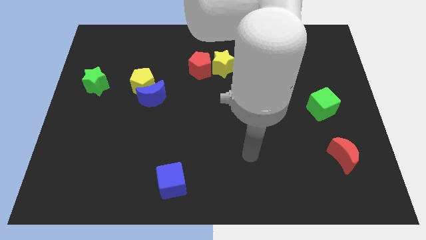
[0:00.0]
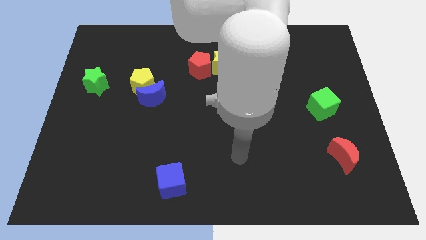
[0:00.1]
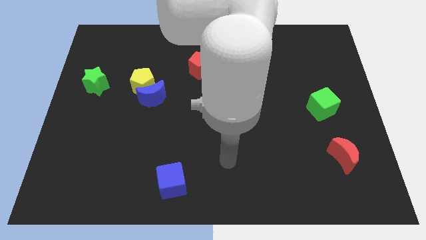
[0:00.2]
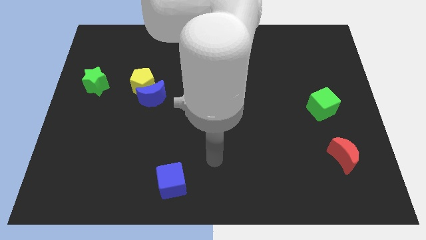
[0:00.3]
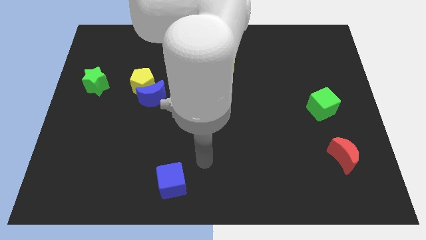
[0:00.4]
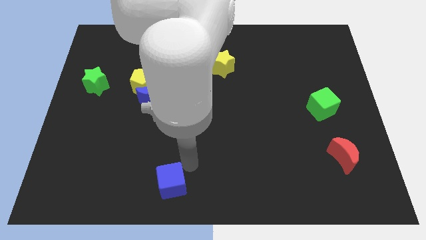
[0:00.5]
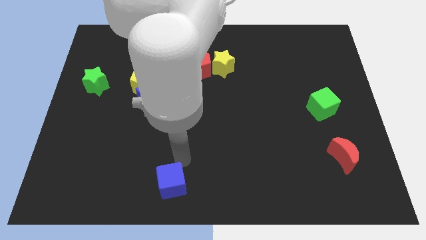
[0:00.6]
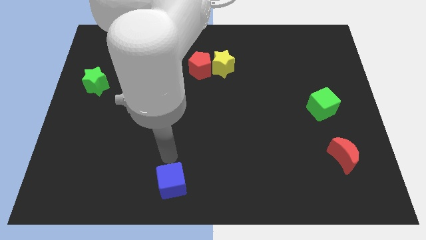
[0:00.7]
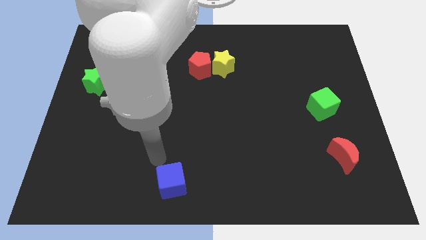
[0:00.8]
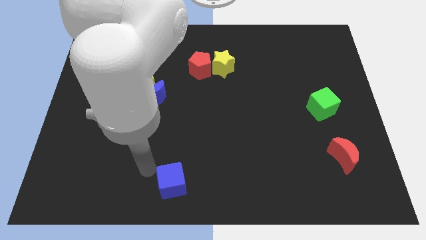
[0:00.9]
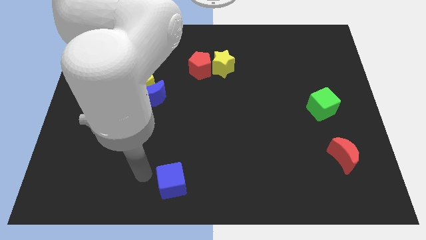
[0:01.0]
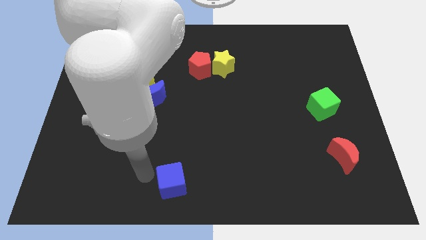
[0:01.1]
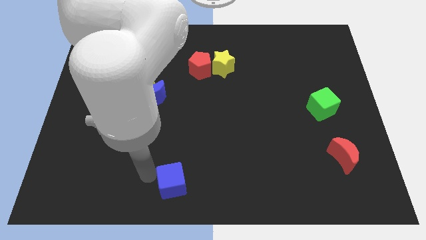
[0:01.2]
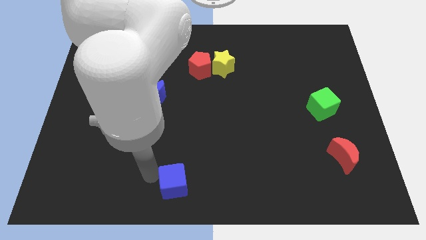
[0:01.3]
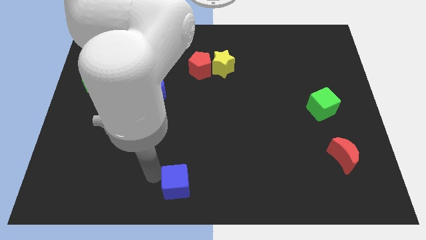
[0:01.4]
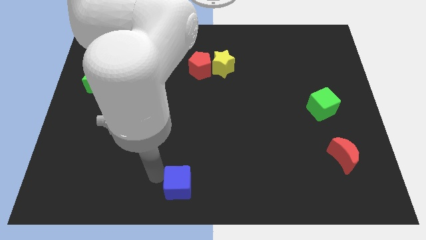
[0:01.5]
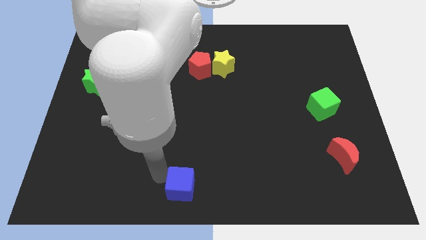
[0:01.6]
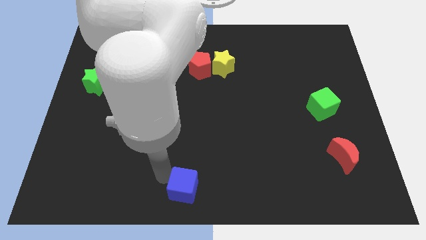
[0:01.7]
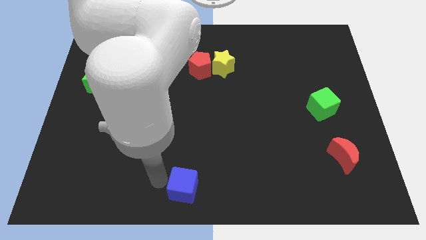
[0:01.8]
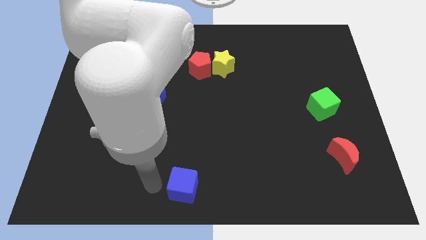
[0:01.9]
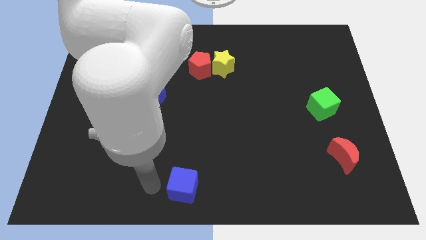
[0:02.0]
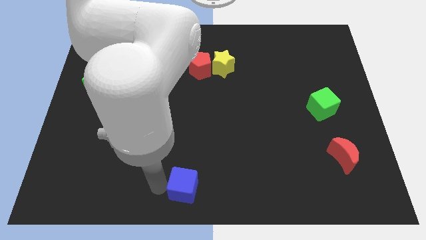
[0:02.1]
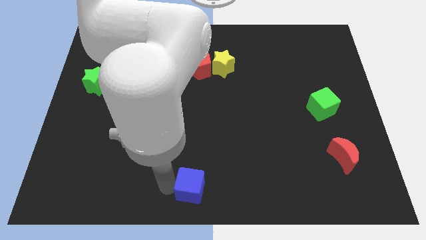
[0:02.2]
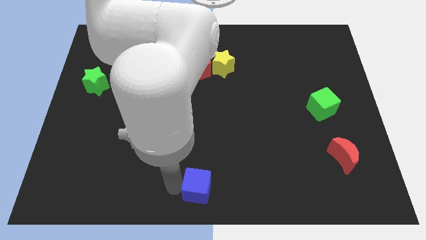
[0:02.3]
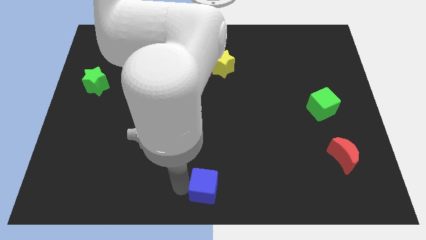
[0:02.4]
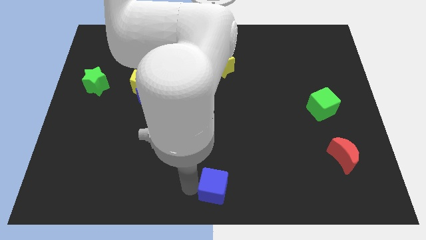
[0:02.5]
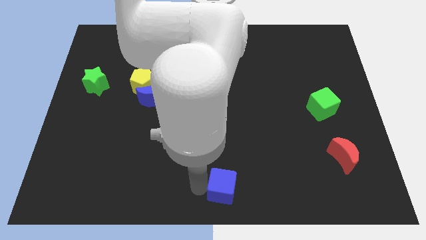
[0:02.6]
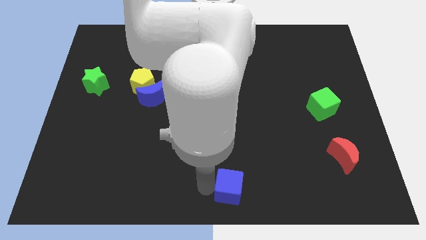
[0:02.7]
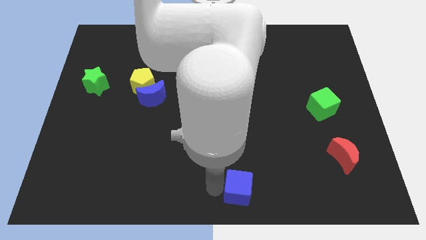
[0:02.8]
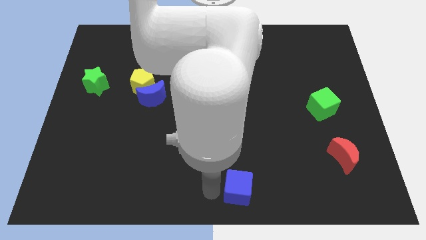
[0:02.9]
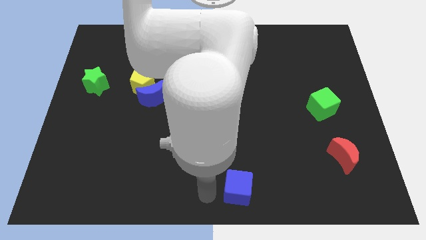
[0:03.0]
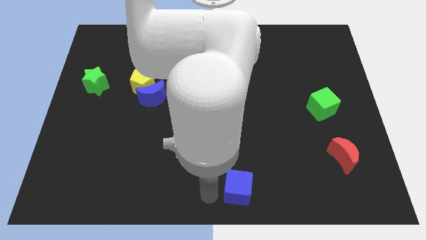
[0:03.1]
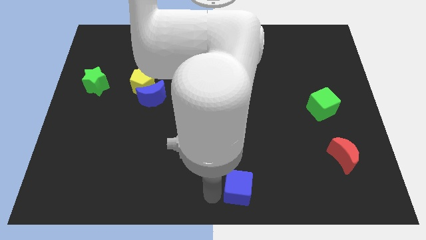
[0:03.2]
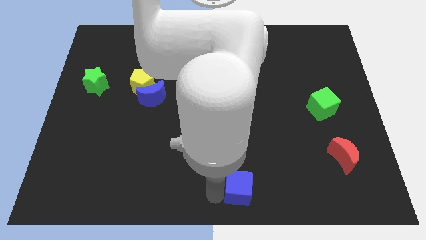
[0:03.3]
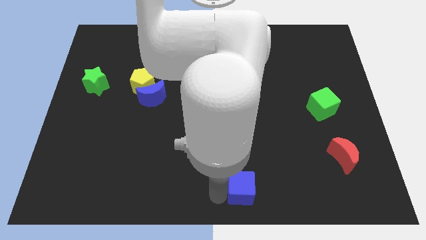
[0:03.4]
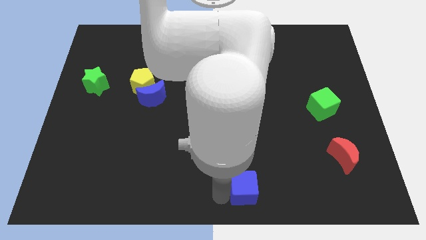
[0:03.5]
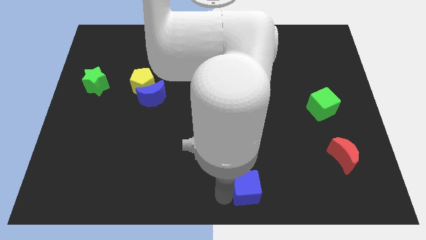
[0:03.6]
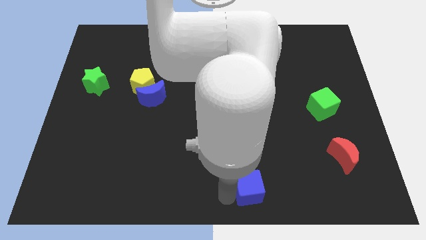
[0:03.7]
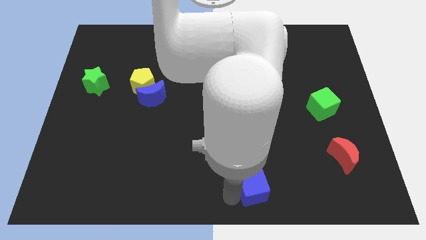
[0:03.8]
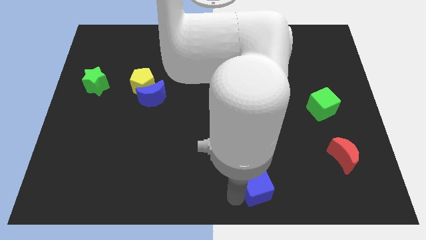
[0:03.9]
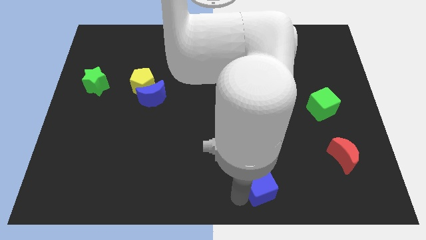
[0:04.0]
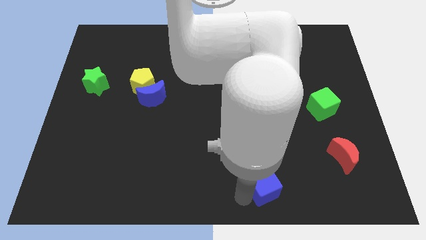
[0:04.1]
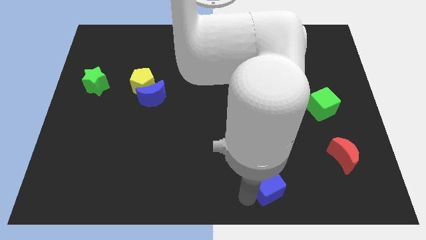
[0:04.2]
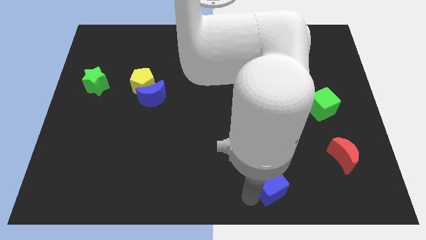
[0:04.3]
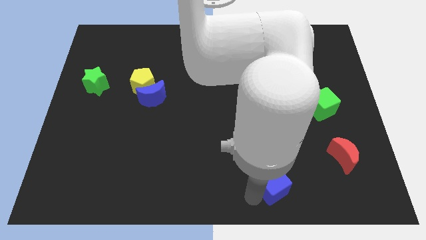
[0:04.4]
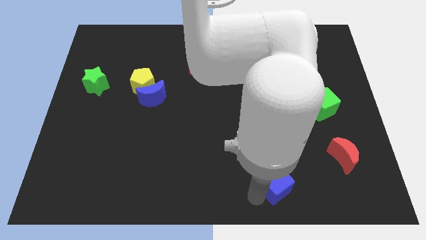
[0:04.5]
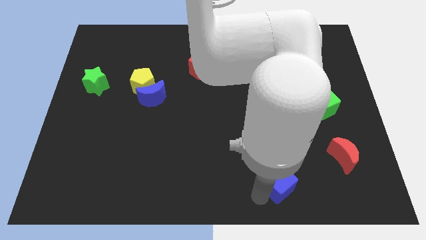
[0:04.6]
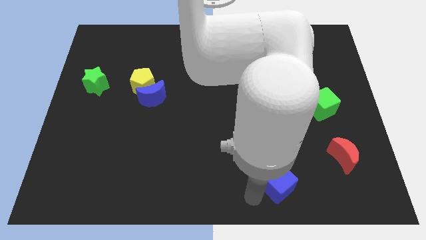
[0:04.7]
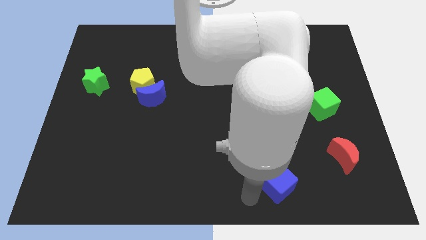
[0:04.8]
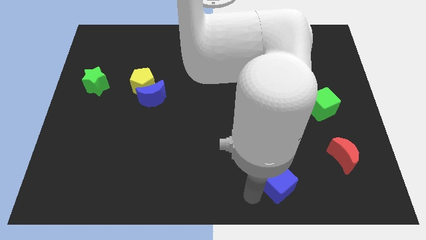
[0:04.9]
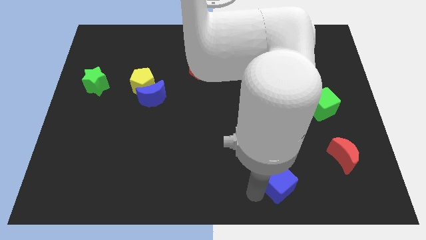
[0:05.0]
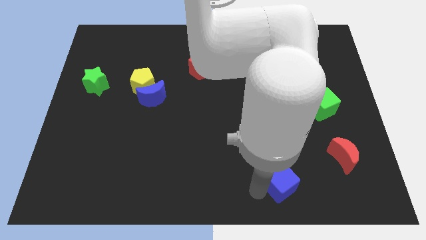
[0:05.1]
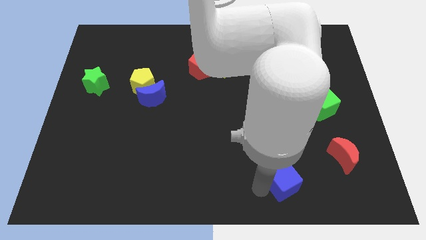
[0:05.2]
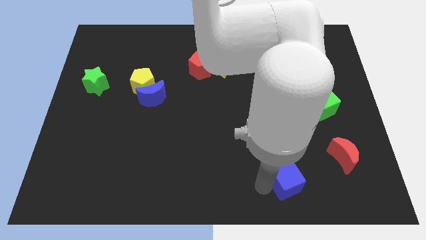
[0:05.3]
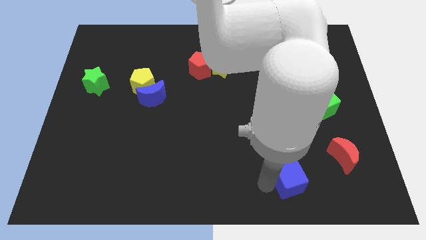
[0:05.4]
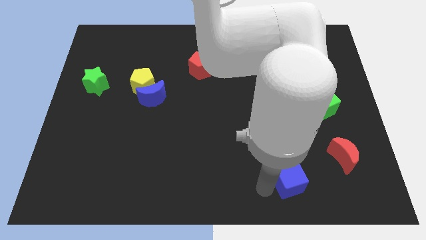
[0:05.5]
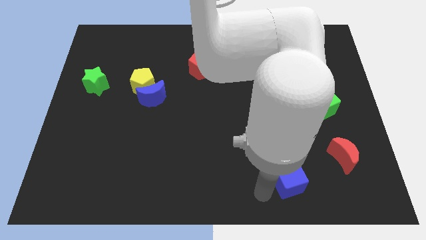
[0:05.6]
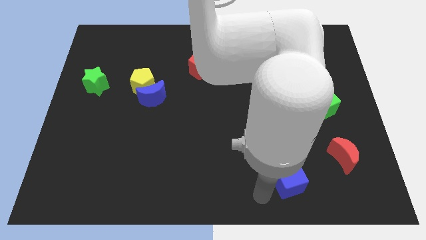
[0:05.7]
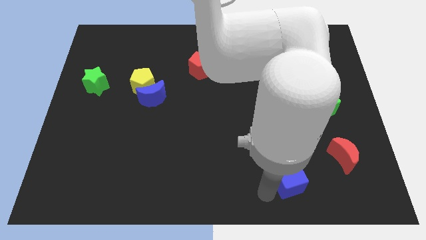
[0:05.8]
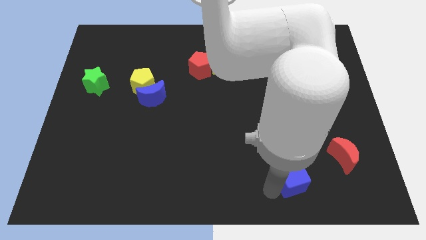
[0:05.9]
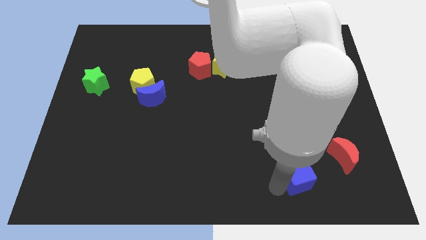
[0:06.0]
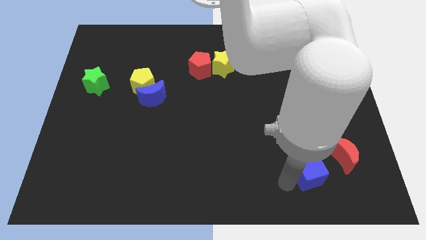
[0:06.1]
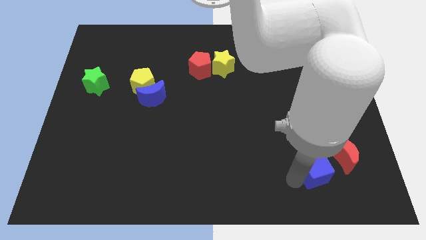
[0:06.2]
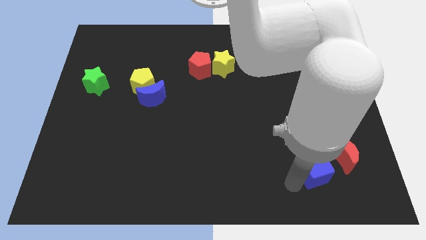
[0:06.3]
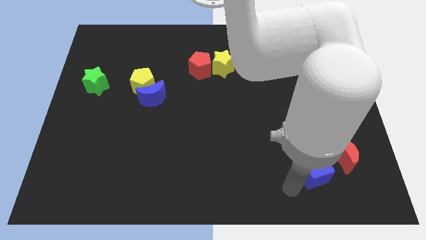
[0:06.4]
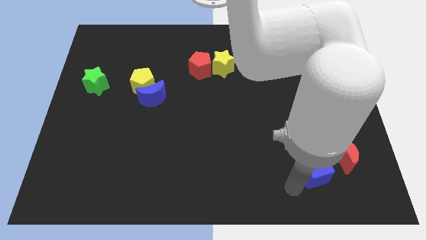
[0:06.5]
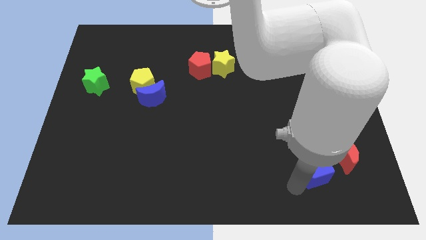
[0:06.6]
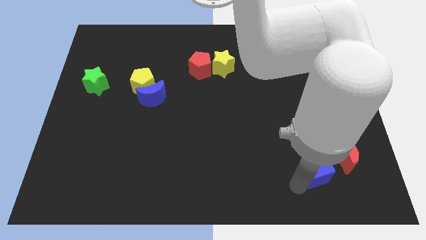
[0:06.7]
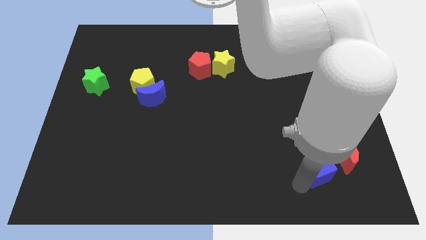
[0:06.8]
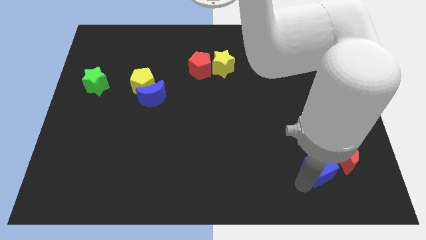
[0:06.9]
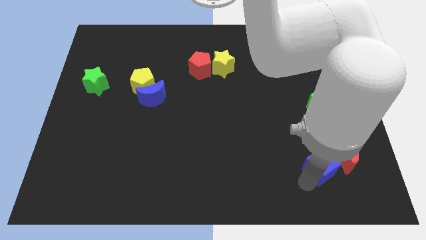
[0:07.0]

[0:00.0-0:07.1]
push the blue cube next to the red moon
